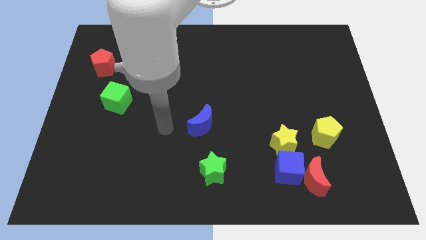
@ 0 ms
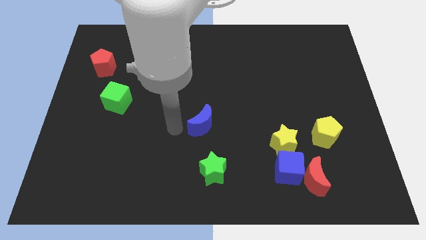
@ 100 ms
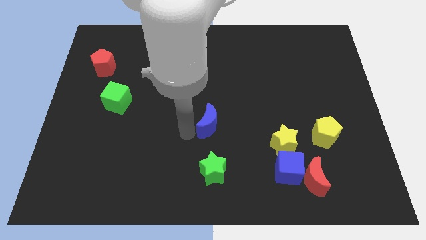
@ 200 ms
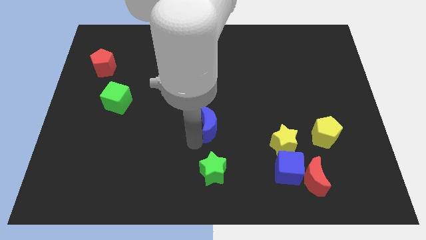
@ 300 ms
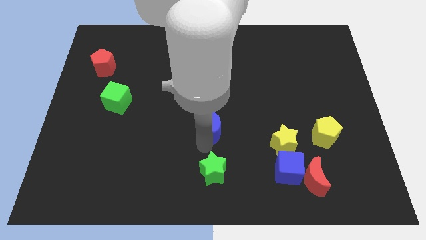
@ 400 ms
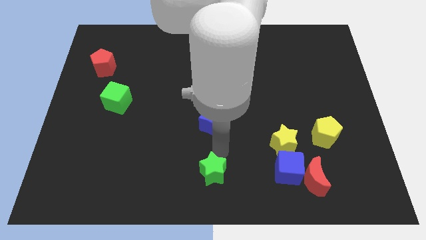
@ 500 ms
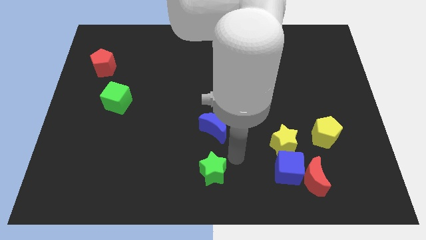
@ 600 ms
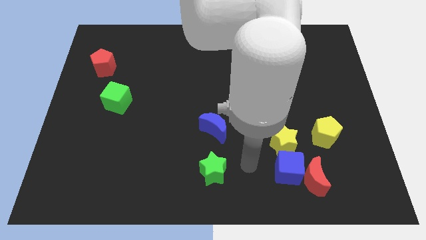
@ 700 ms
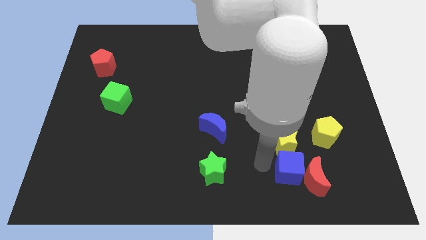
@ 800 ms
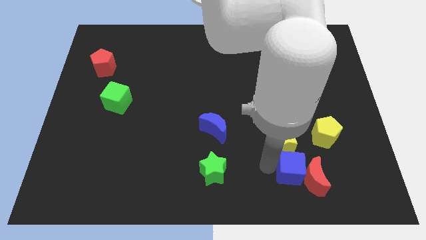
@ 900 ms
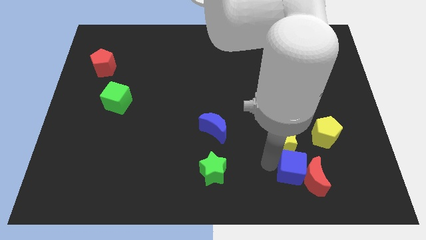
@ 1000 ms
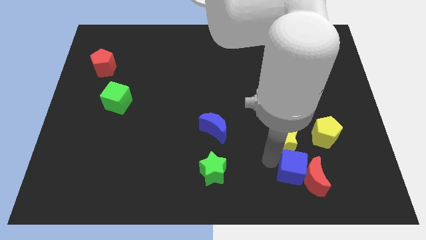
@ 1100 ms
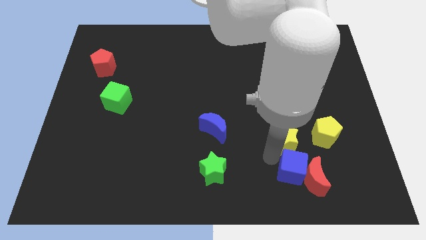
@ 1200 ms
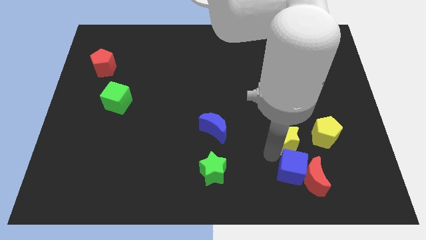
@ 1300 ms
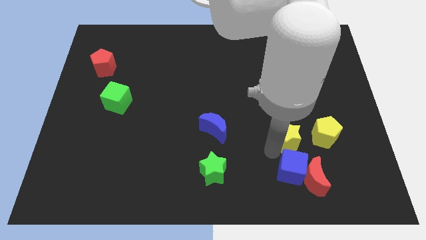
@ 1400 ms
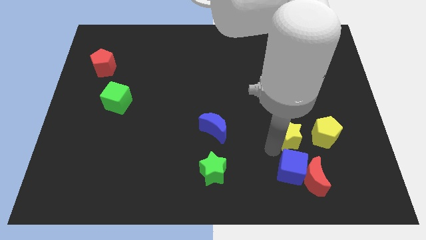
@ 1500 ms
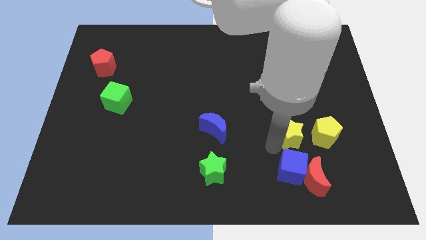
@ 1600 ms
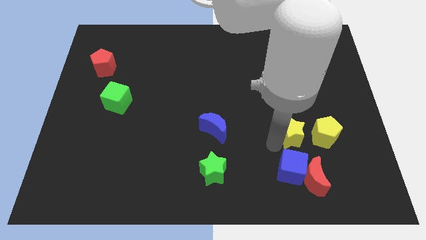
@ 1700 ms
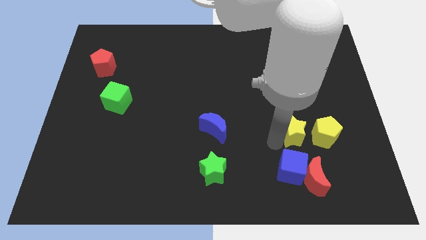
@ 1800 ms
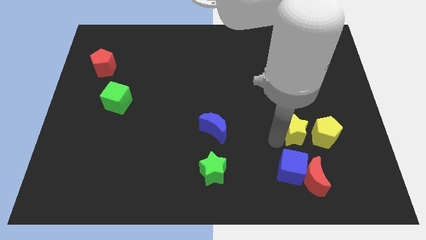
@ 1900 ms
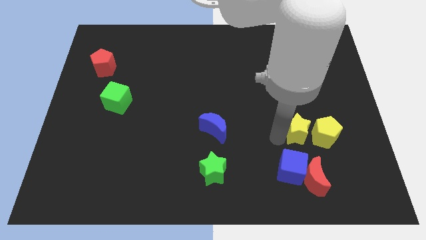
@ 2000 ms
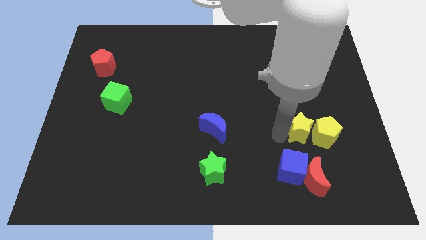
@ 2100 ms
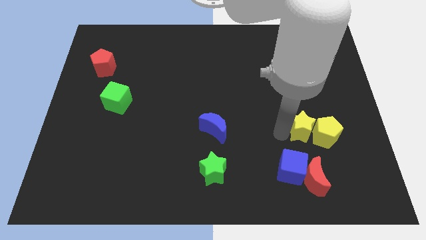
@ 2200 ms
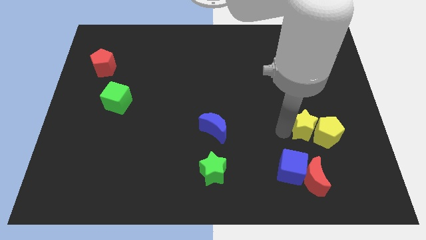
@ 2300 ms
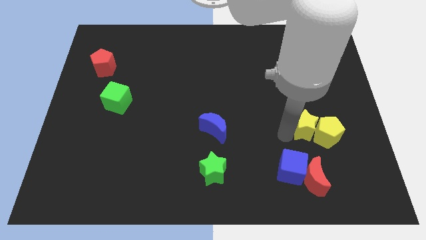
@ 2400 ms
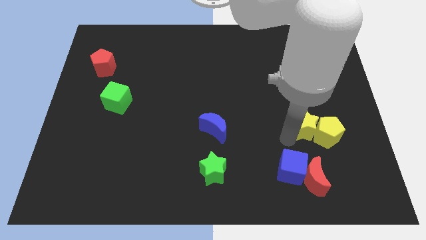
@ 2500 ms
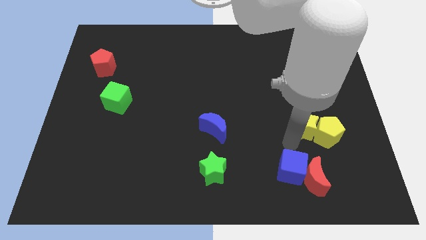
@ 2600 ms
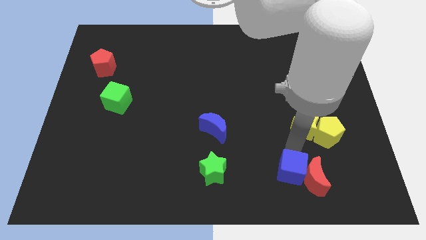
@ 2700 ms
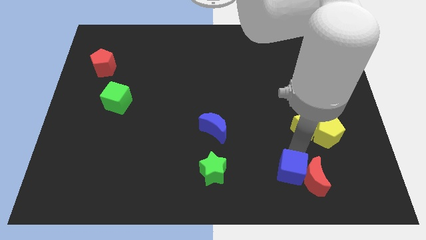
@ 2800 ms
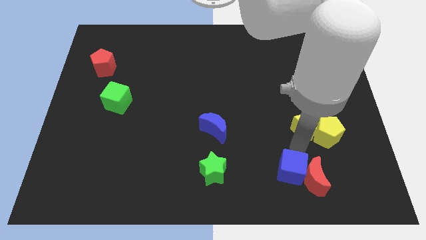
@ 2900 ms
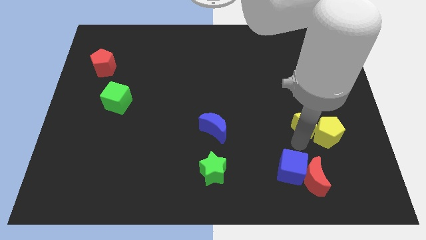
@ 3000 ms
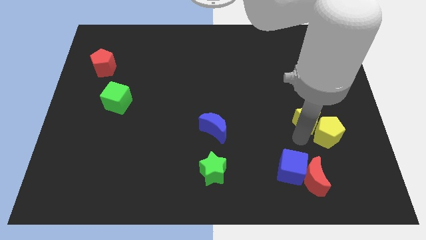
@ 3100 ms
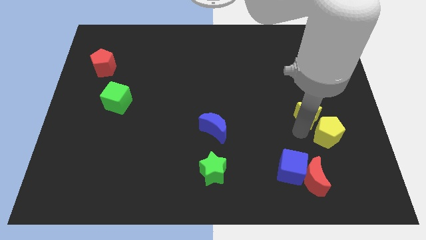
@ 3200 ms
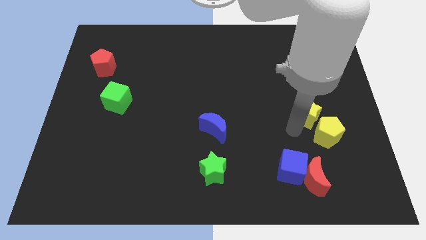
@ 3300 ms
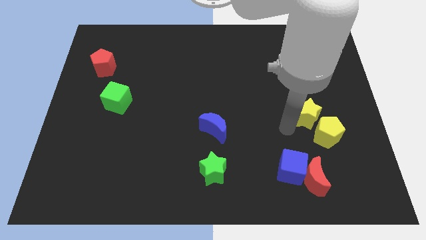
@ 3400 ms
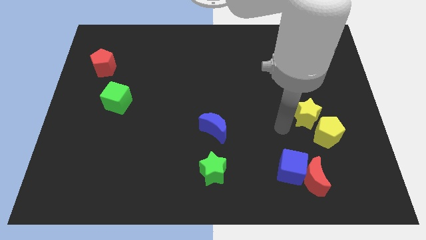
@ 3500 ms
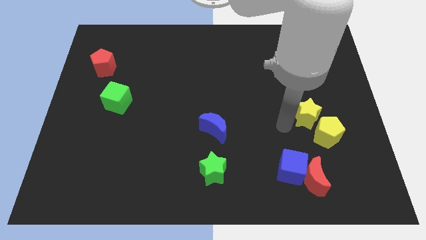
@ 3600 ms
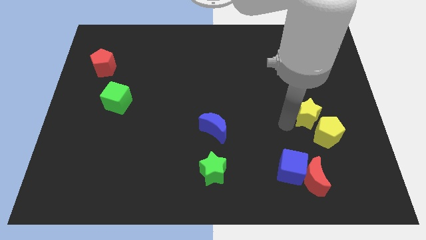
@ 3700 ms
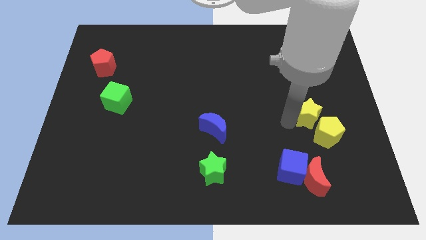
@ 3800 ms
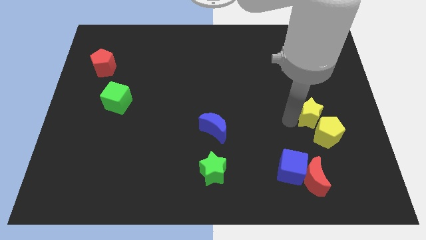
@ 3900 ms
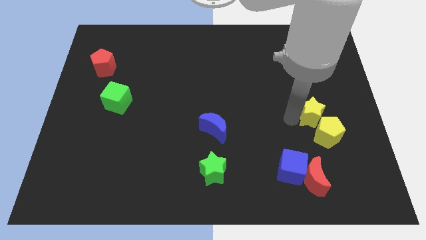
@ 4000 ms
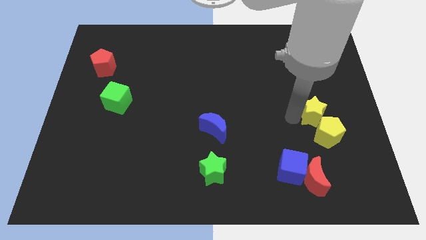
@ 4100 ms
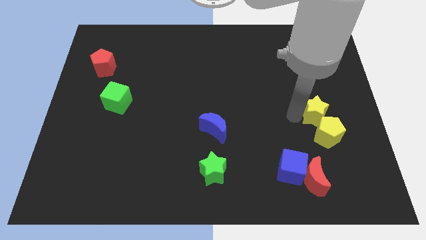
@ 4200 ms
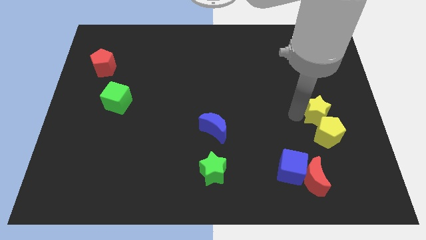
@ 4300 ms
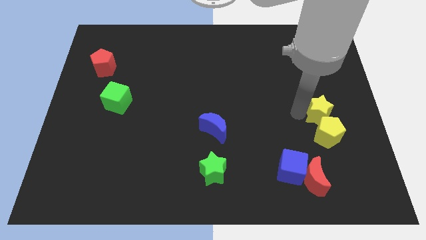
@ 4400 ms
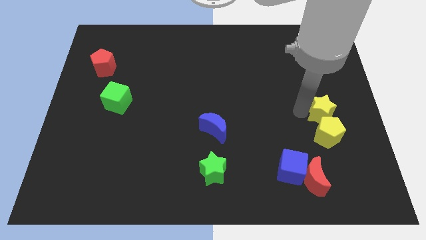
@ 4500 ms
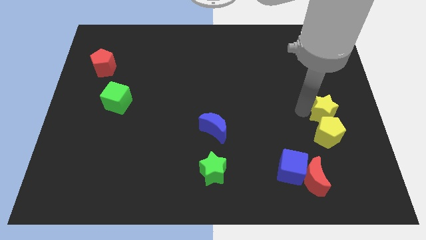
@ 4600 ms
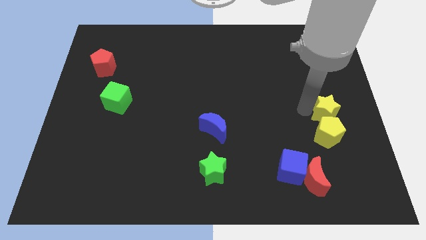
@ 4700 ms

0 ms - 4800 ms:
push the yellow star to the center right

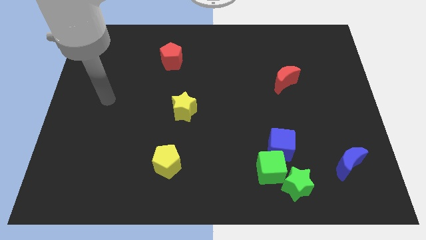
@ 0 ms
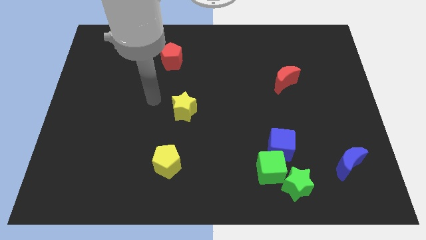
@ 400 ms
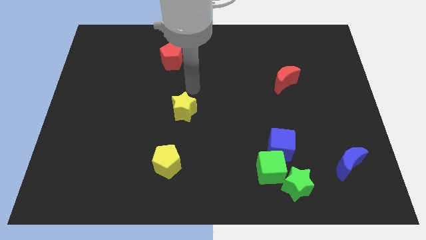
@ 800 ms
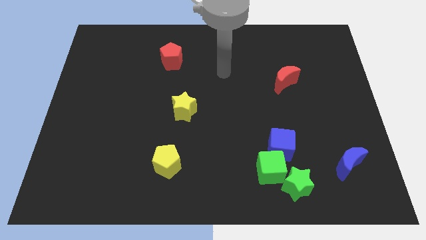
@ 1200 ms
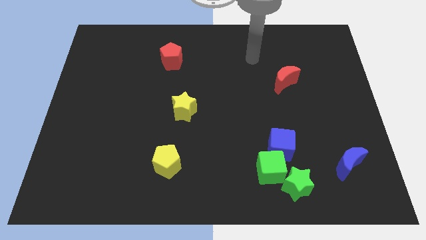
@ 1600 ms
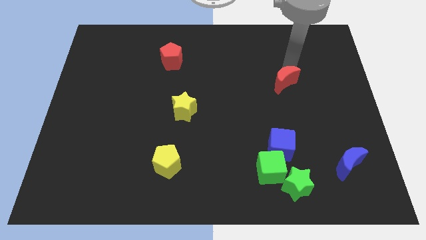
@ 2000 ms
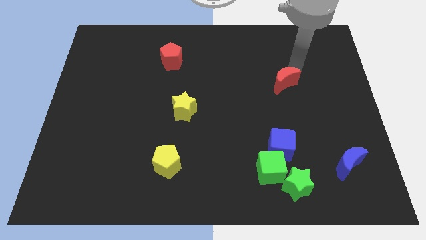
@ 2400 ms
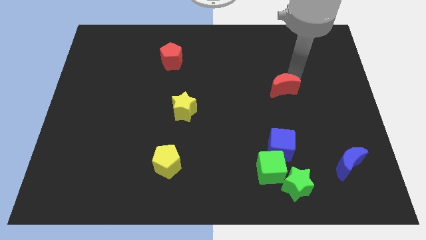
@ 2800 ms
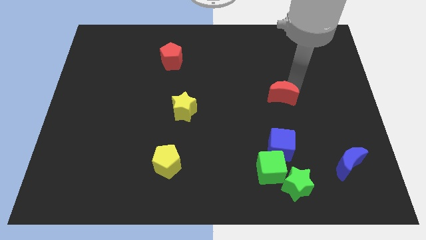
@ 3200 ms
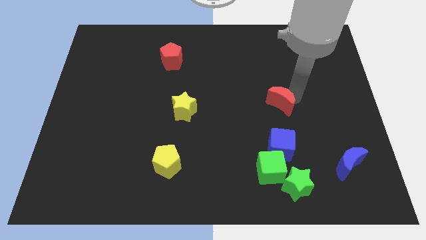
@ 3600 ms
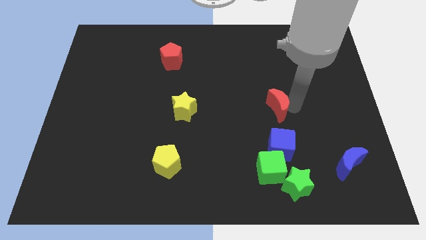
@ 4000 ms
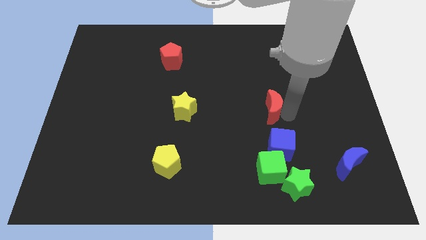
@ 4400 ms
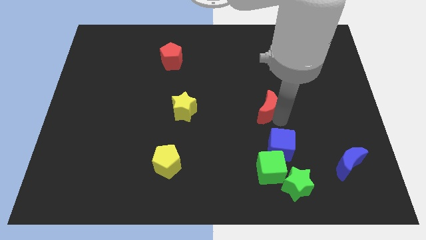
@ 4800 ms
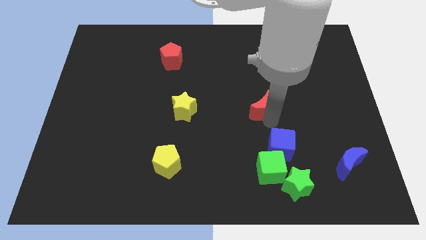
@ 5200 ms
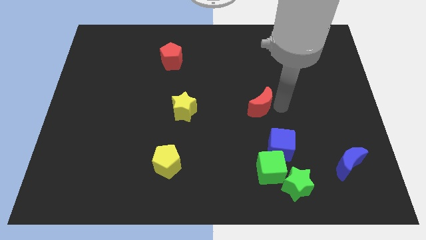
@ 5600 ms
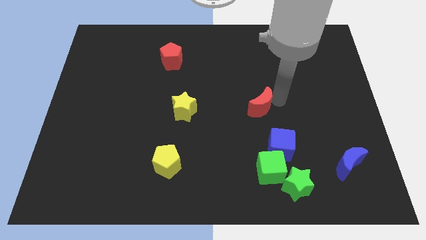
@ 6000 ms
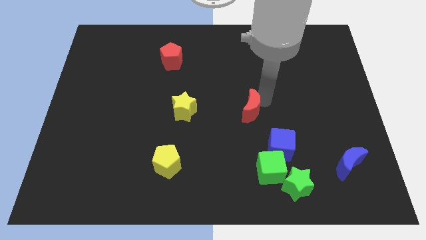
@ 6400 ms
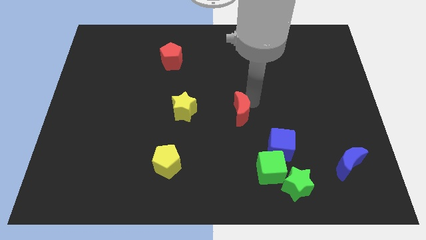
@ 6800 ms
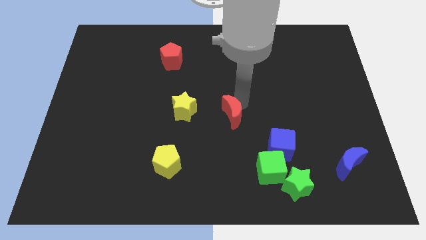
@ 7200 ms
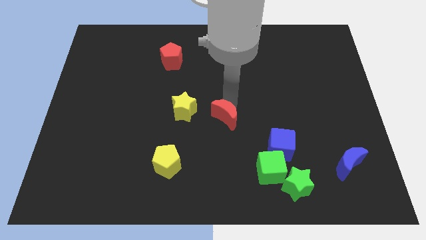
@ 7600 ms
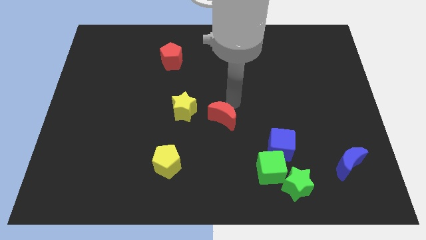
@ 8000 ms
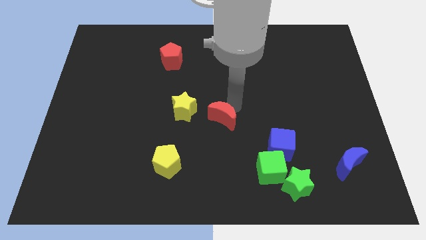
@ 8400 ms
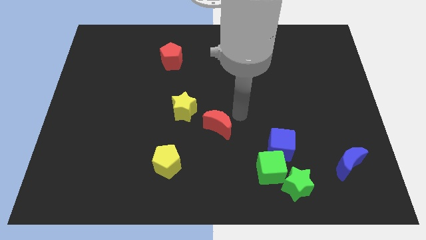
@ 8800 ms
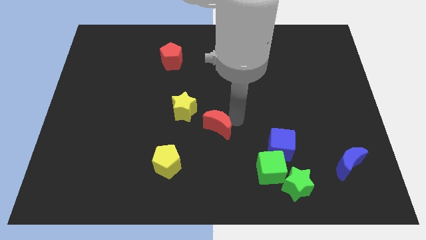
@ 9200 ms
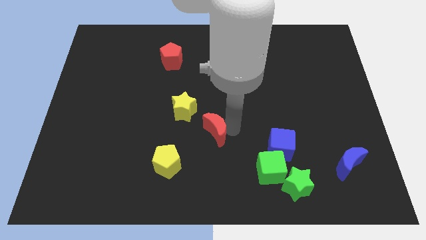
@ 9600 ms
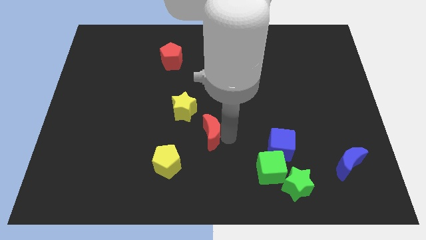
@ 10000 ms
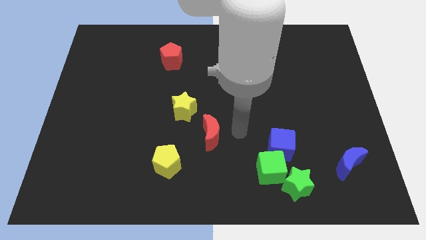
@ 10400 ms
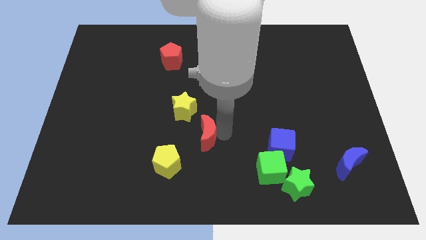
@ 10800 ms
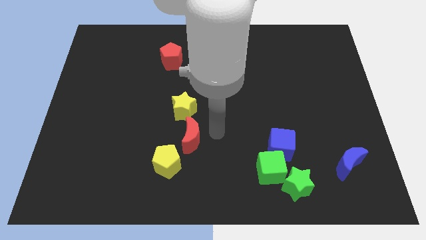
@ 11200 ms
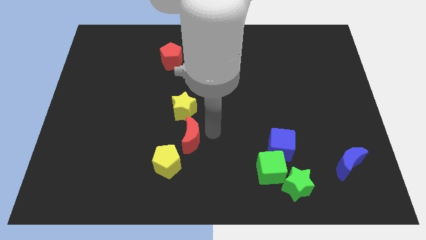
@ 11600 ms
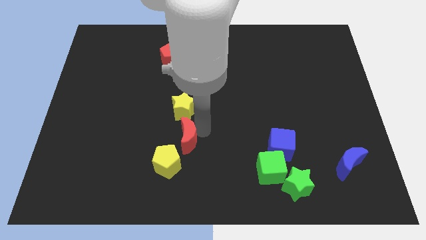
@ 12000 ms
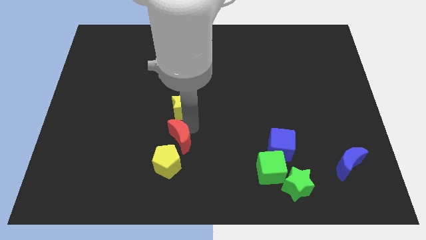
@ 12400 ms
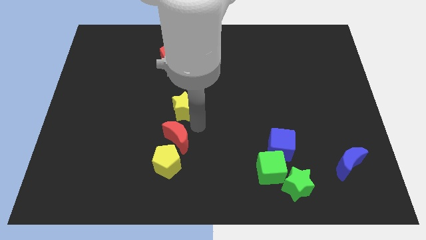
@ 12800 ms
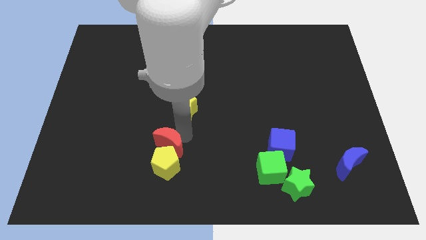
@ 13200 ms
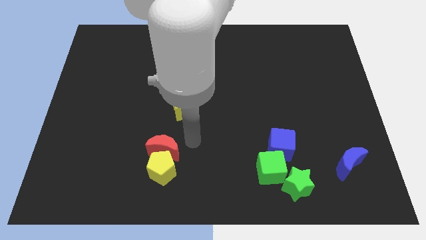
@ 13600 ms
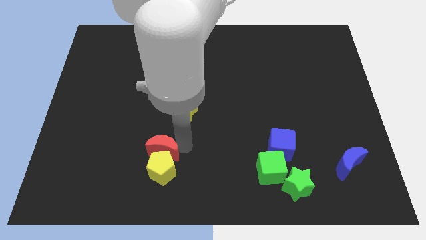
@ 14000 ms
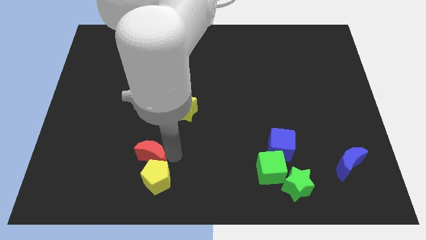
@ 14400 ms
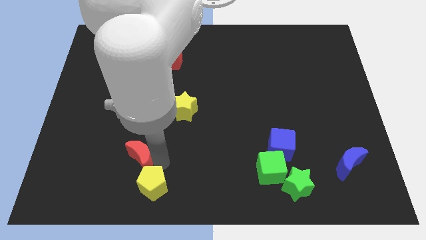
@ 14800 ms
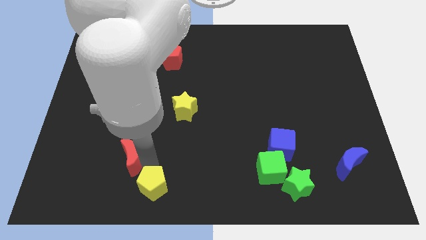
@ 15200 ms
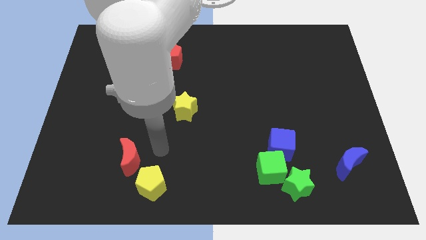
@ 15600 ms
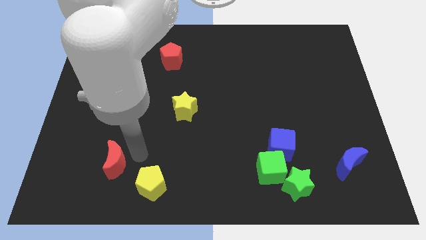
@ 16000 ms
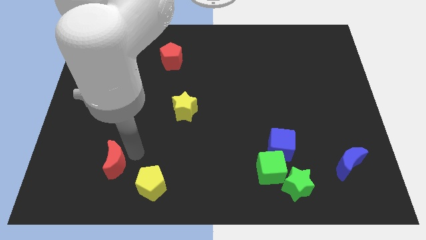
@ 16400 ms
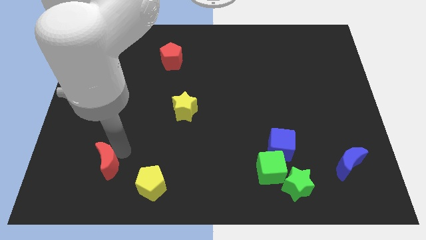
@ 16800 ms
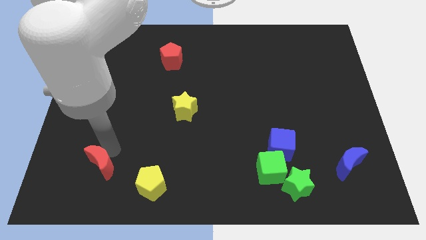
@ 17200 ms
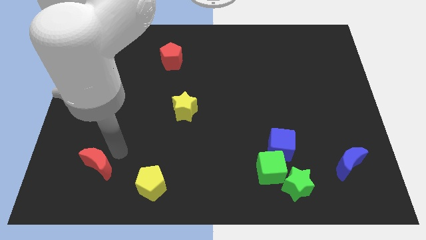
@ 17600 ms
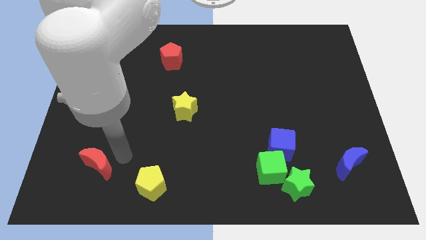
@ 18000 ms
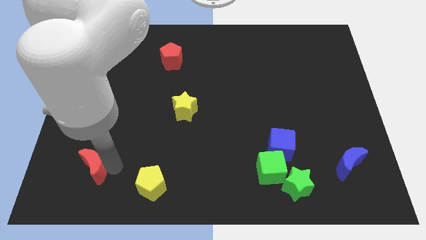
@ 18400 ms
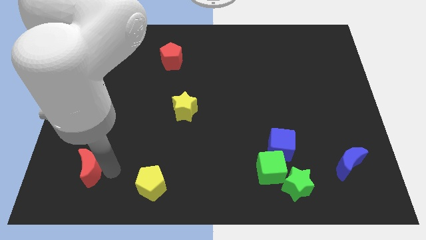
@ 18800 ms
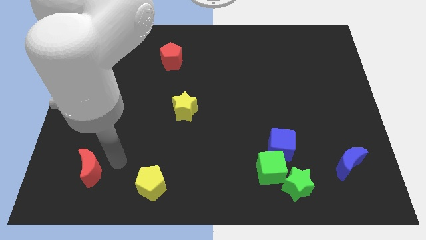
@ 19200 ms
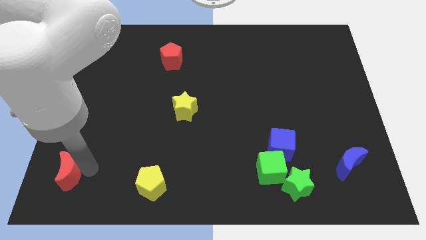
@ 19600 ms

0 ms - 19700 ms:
move the red moon to the lower left corner
